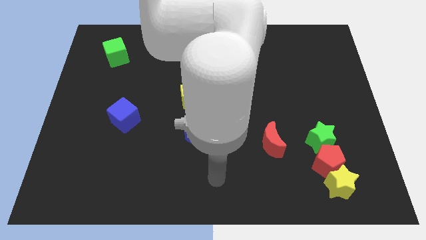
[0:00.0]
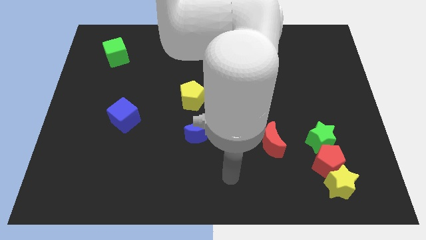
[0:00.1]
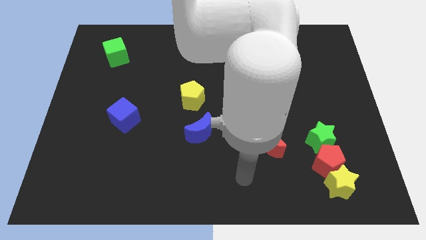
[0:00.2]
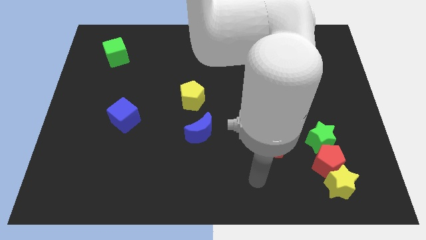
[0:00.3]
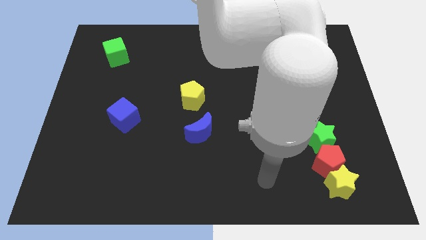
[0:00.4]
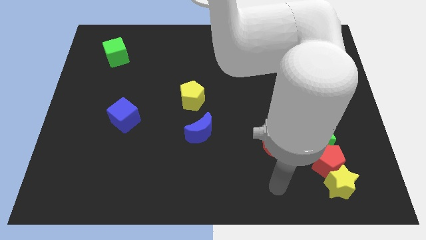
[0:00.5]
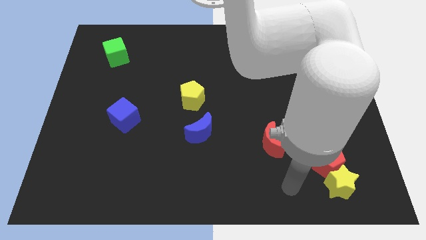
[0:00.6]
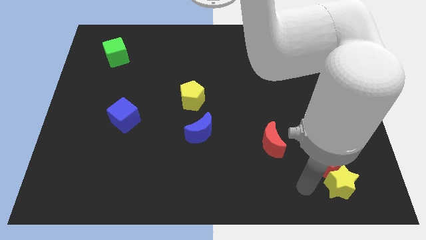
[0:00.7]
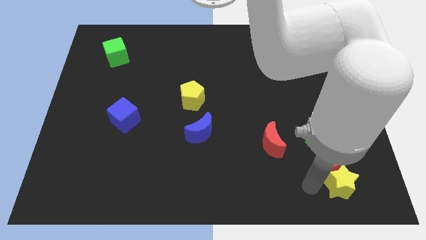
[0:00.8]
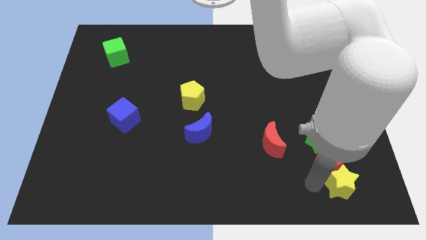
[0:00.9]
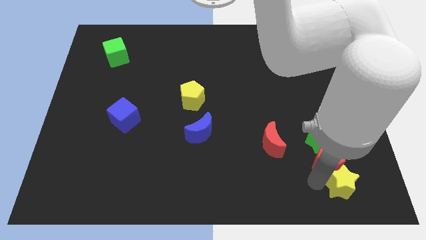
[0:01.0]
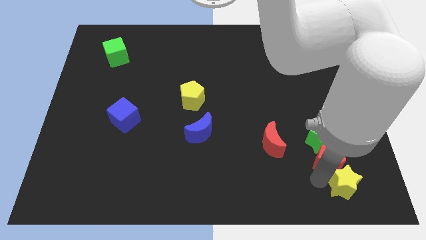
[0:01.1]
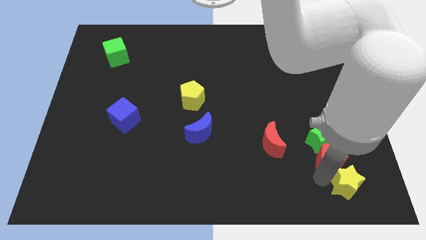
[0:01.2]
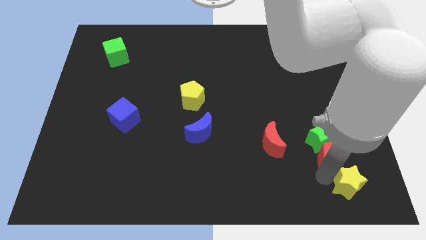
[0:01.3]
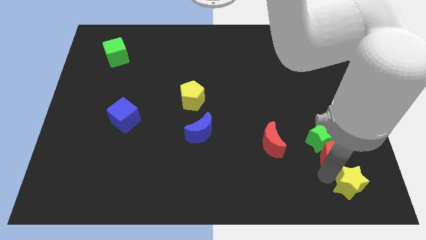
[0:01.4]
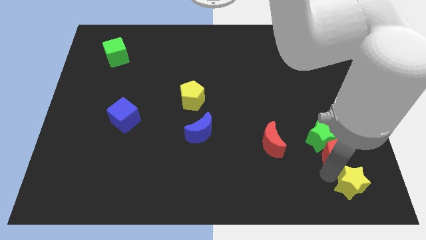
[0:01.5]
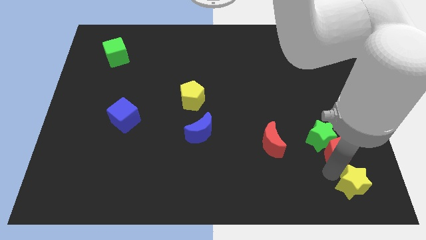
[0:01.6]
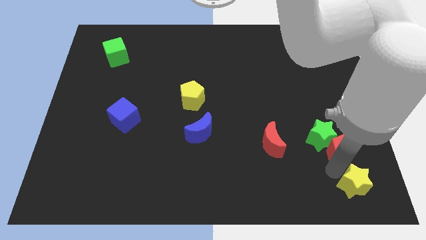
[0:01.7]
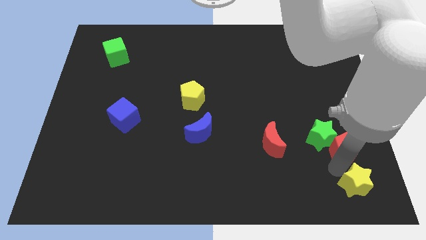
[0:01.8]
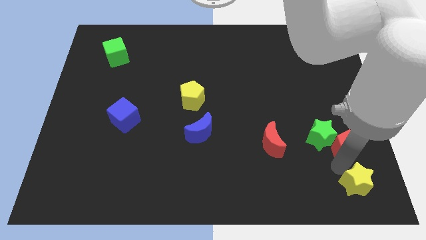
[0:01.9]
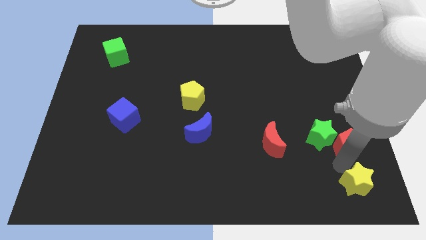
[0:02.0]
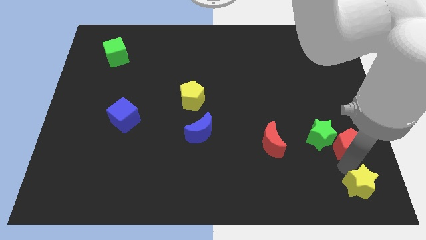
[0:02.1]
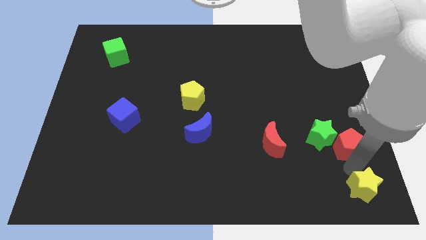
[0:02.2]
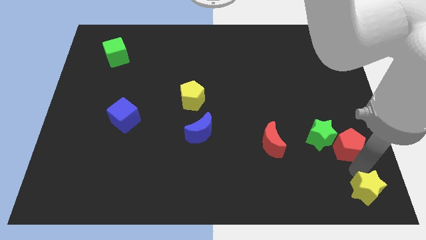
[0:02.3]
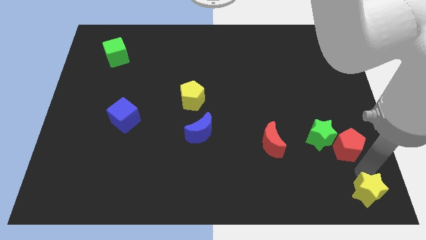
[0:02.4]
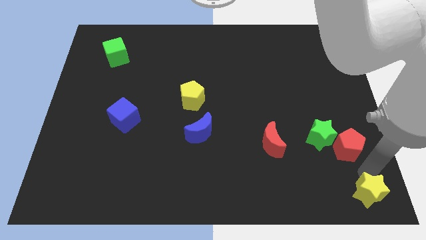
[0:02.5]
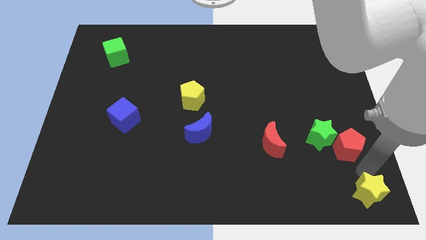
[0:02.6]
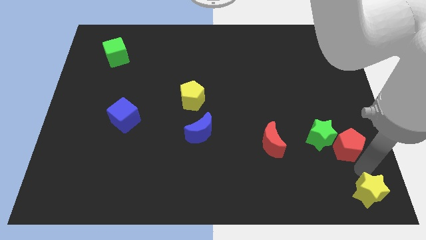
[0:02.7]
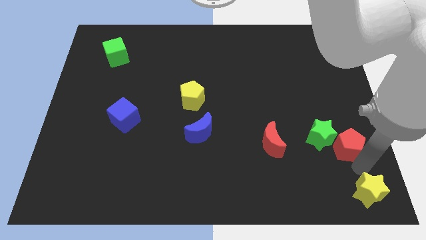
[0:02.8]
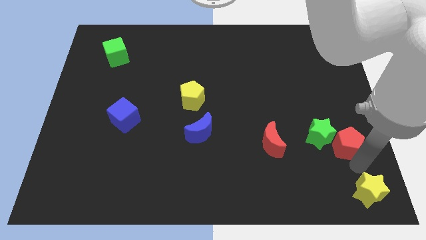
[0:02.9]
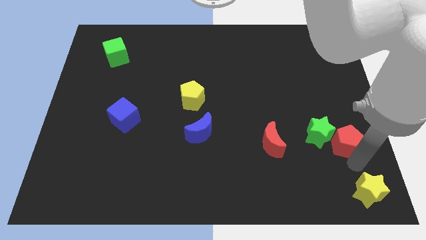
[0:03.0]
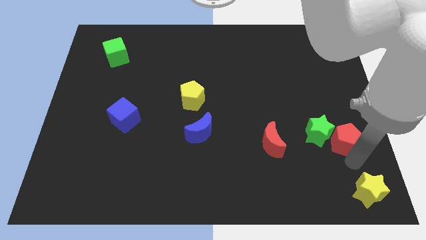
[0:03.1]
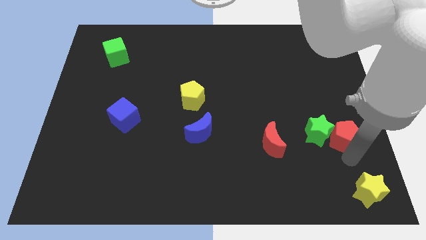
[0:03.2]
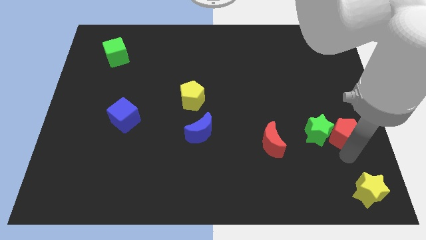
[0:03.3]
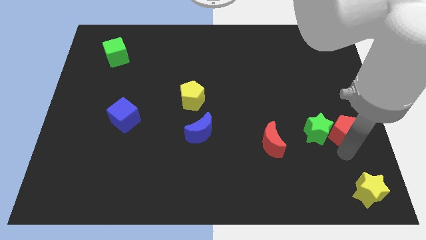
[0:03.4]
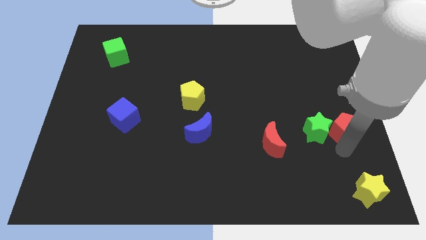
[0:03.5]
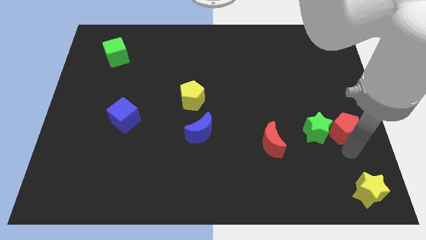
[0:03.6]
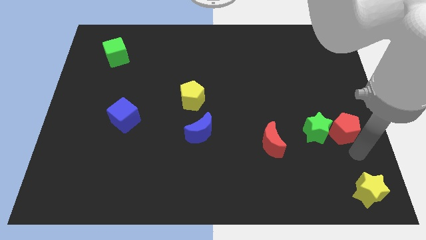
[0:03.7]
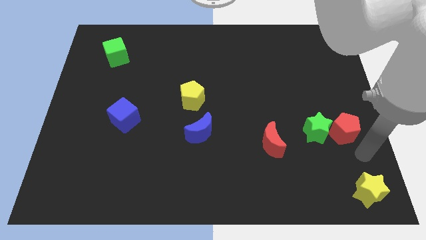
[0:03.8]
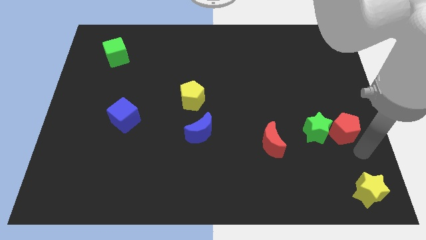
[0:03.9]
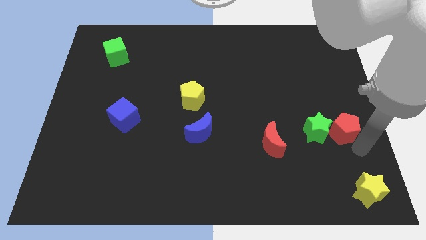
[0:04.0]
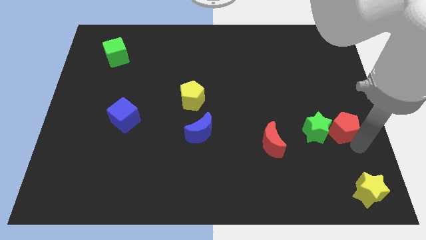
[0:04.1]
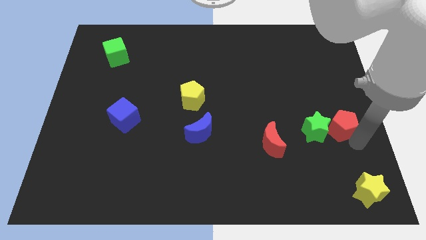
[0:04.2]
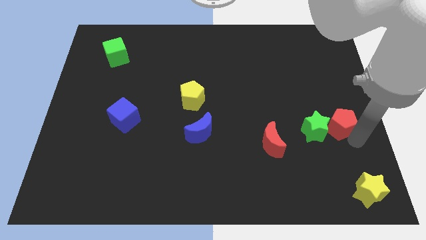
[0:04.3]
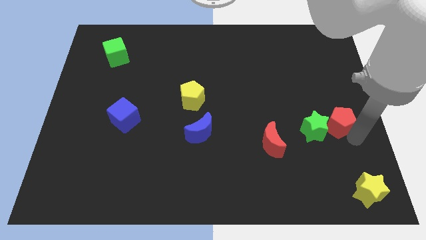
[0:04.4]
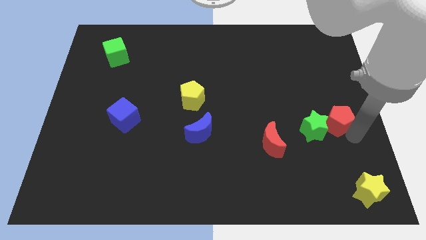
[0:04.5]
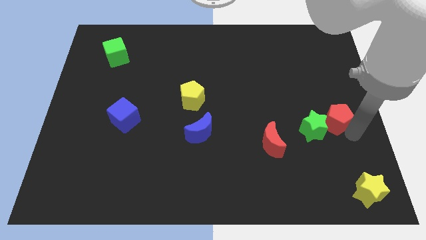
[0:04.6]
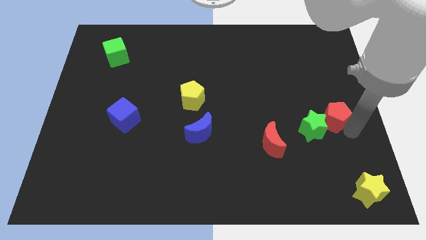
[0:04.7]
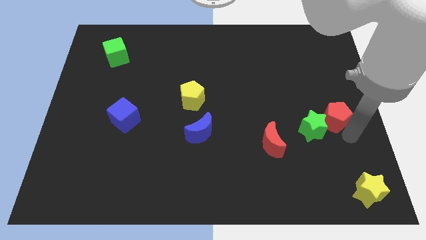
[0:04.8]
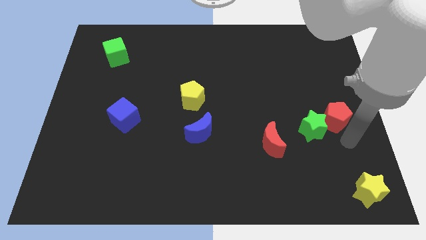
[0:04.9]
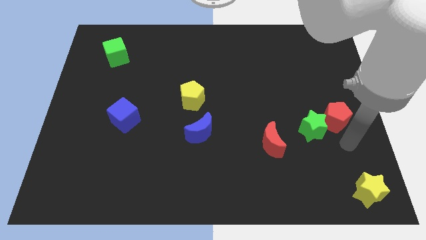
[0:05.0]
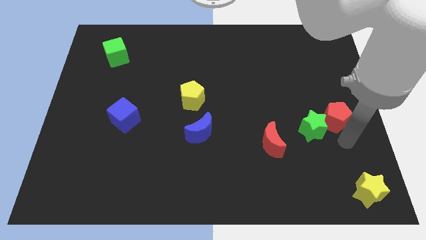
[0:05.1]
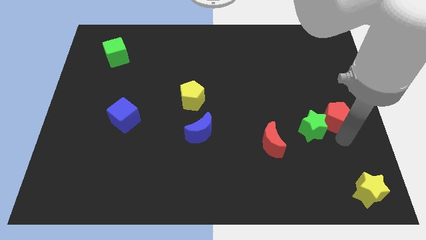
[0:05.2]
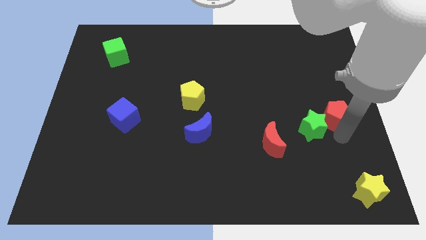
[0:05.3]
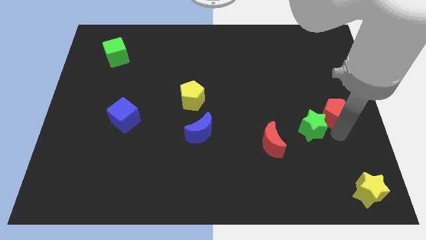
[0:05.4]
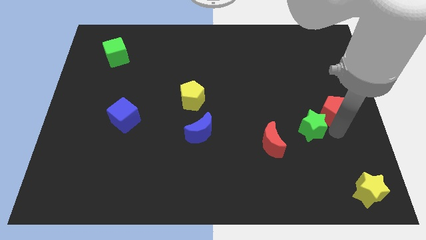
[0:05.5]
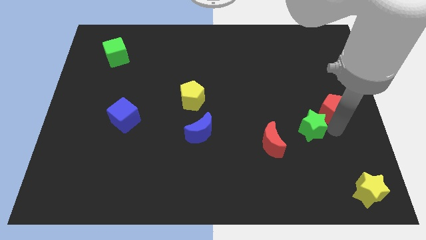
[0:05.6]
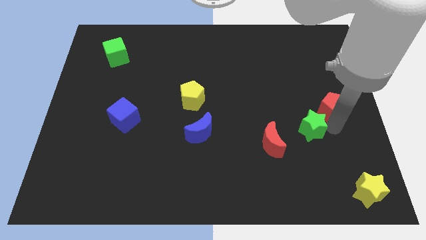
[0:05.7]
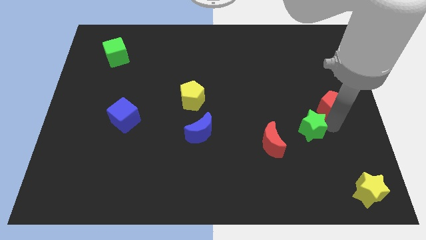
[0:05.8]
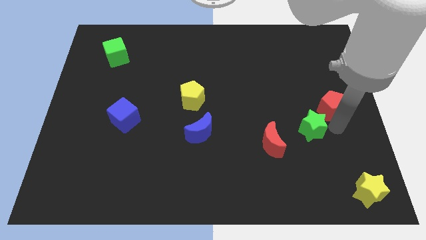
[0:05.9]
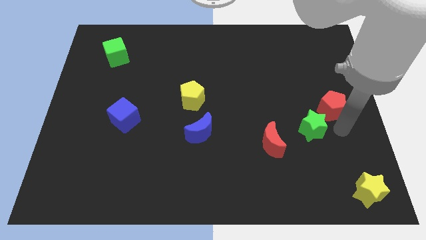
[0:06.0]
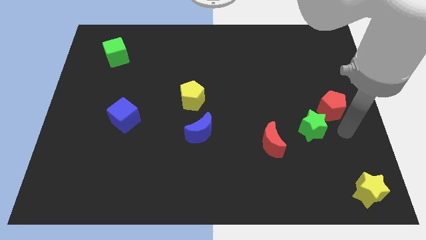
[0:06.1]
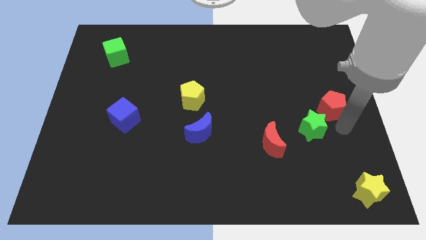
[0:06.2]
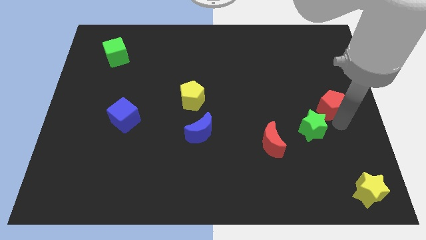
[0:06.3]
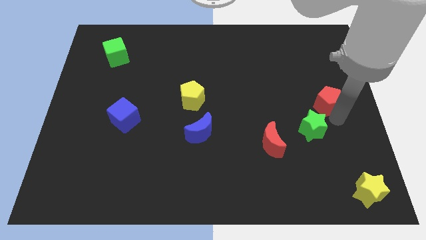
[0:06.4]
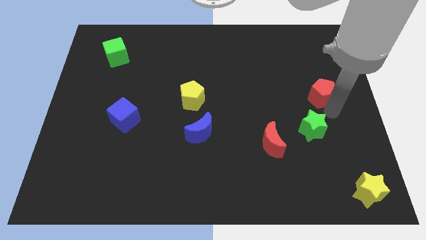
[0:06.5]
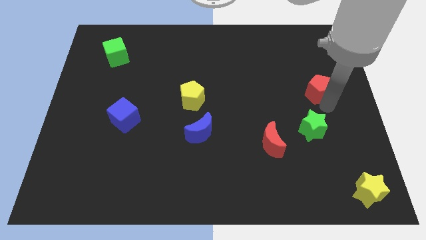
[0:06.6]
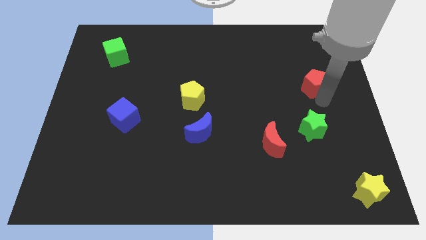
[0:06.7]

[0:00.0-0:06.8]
move the red pentagon up

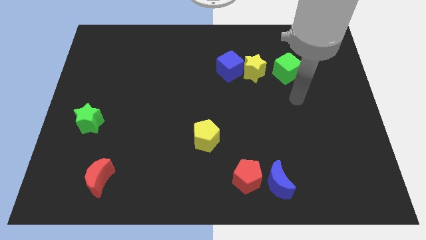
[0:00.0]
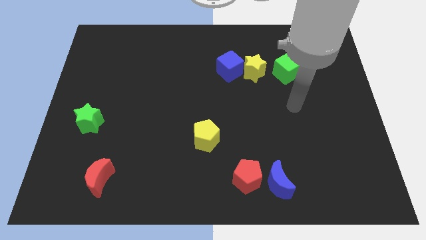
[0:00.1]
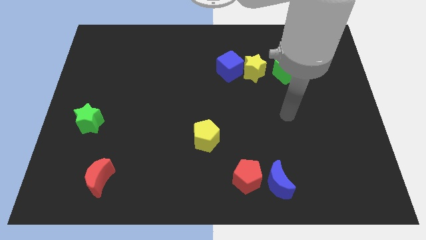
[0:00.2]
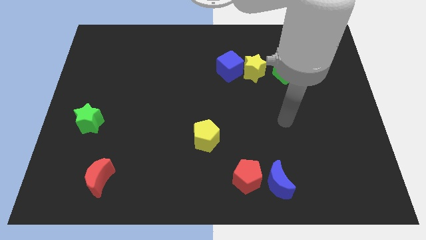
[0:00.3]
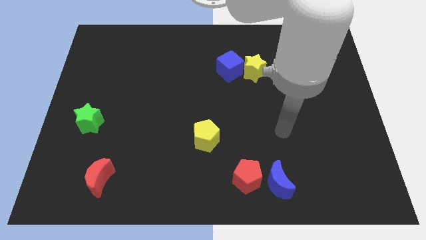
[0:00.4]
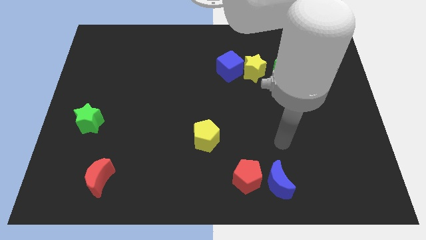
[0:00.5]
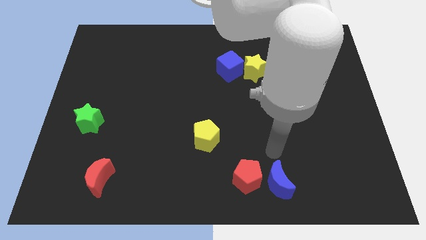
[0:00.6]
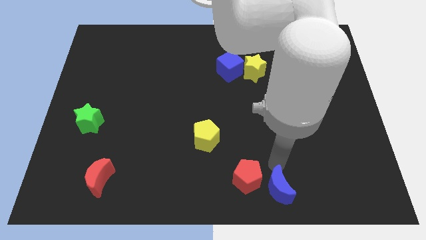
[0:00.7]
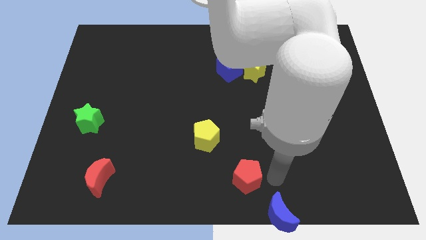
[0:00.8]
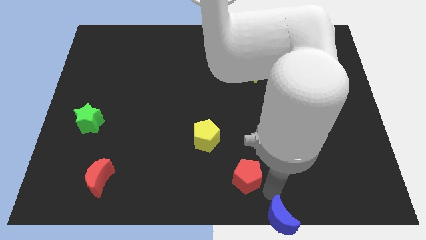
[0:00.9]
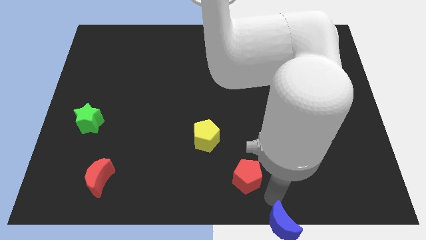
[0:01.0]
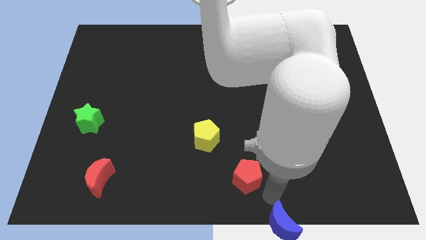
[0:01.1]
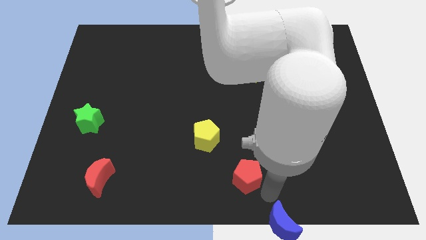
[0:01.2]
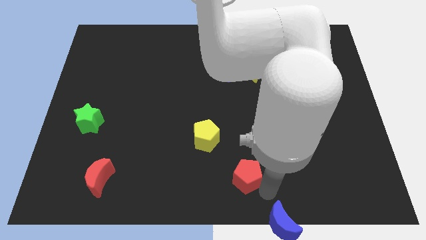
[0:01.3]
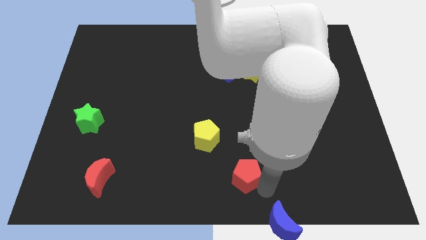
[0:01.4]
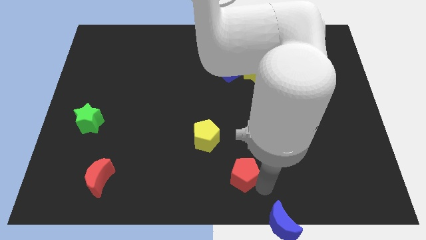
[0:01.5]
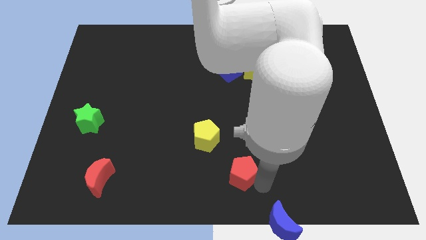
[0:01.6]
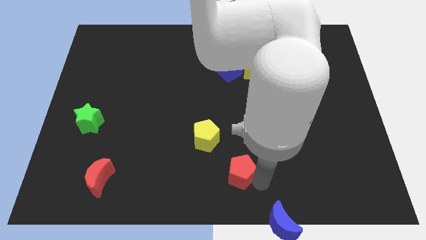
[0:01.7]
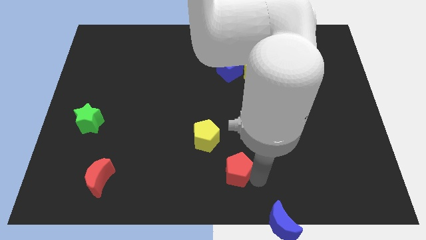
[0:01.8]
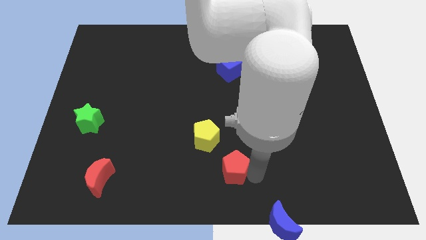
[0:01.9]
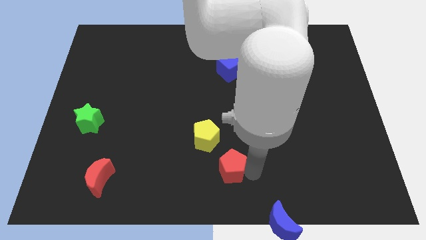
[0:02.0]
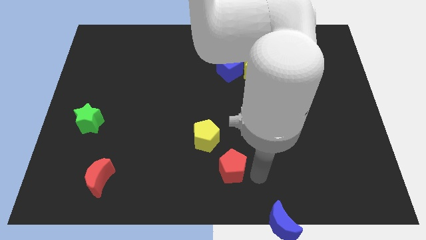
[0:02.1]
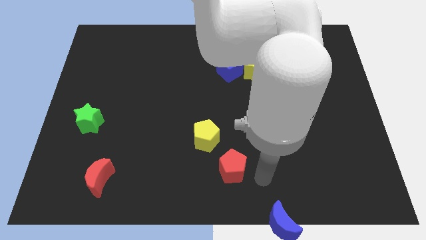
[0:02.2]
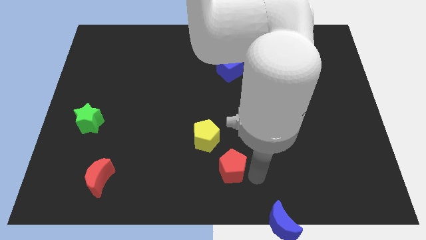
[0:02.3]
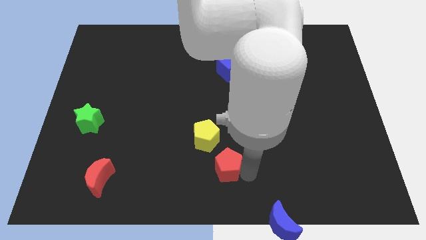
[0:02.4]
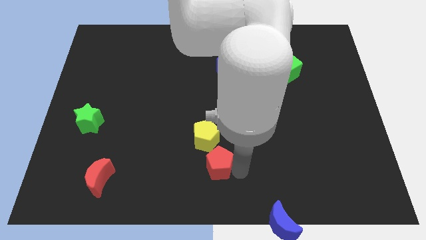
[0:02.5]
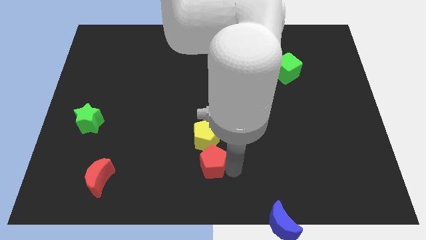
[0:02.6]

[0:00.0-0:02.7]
move the red pentagon upwards and left diagonally a bit
